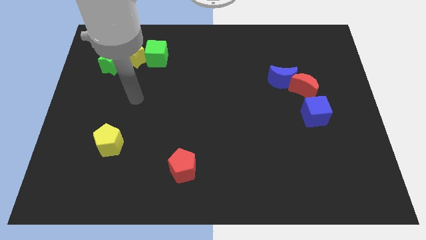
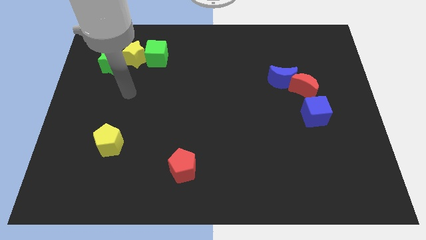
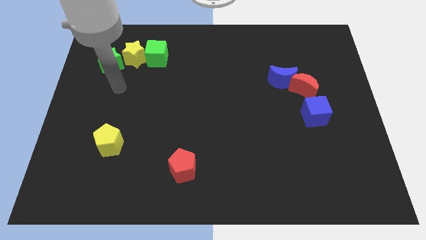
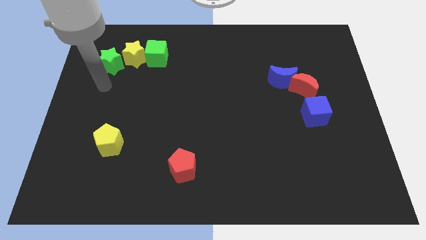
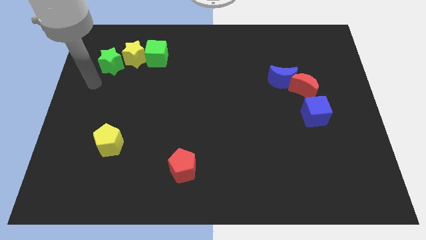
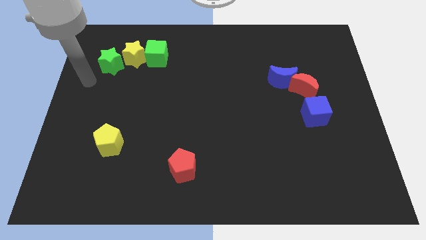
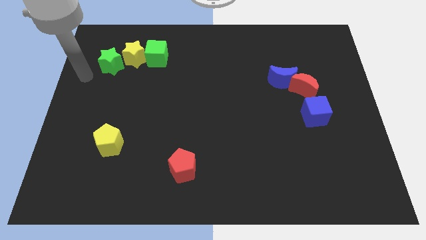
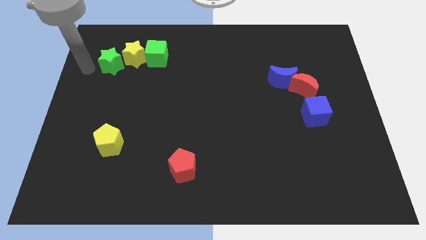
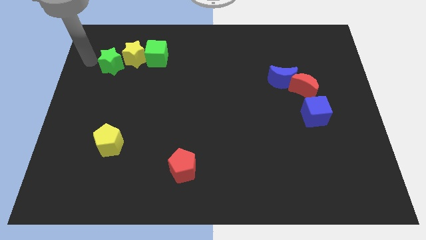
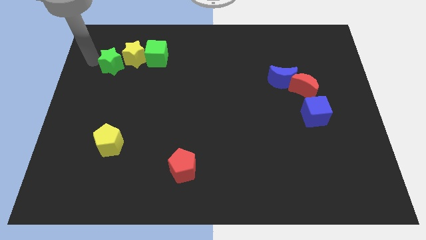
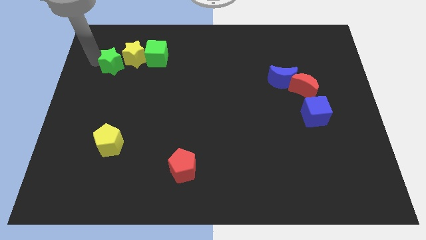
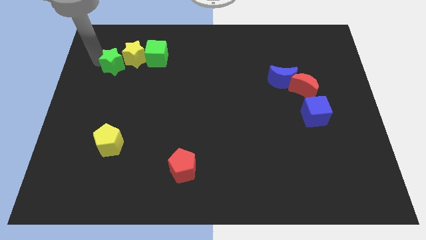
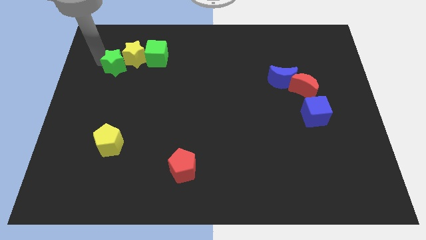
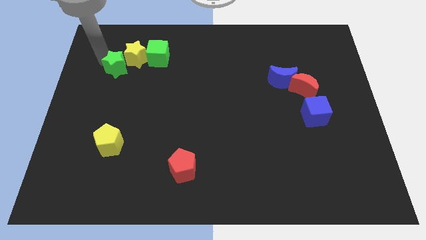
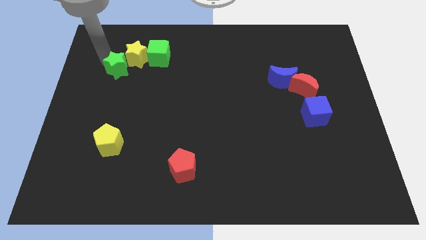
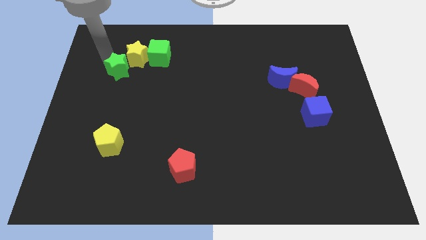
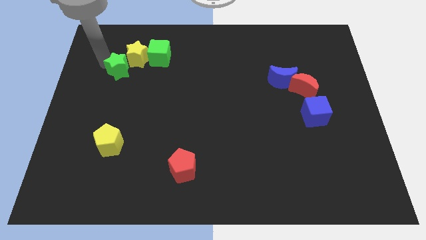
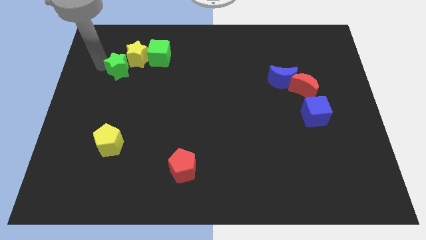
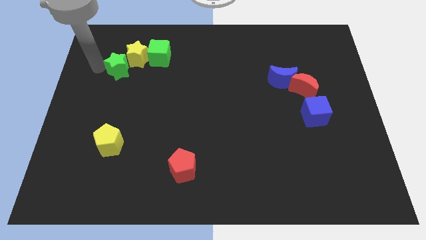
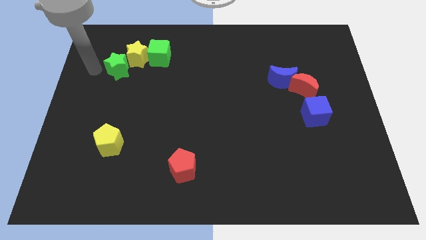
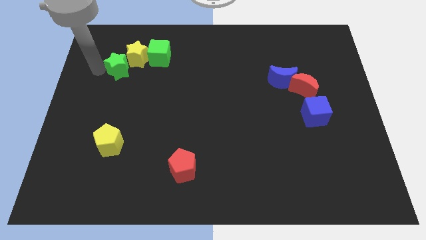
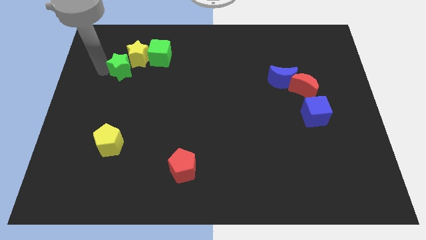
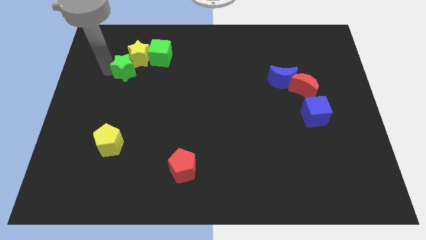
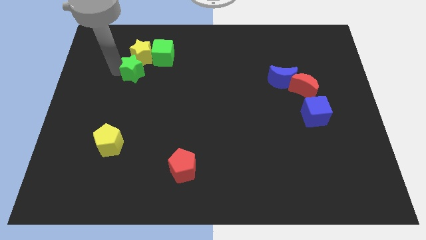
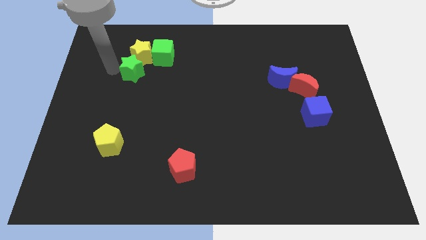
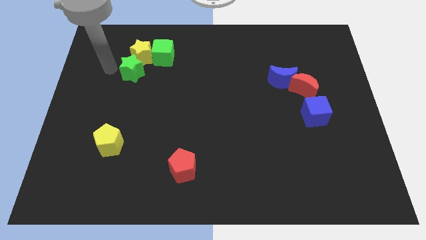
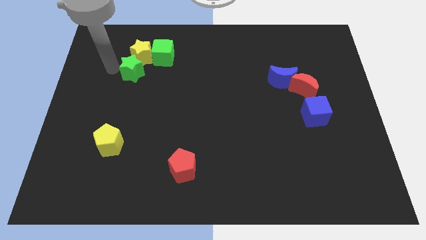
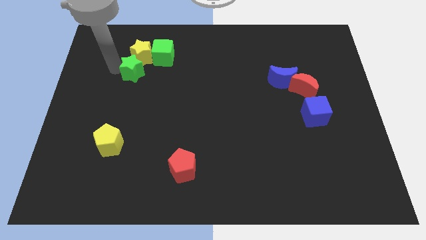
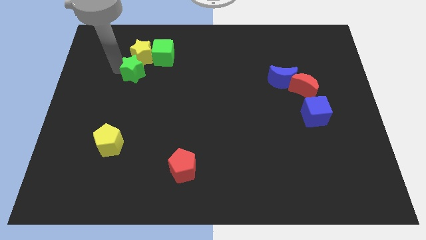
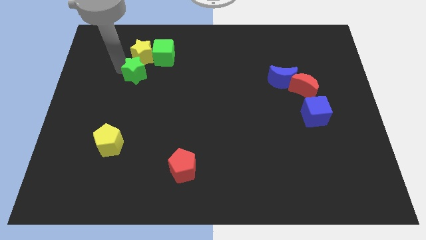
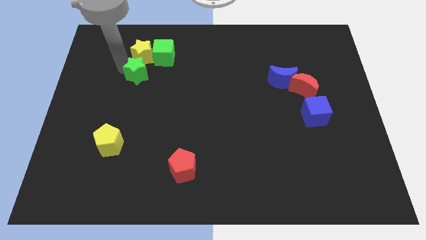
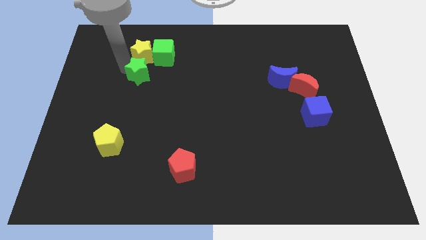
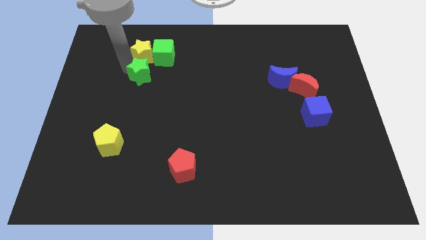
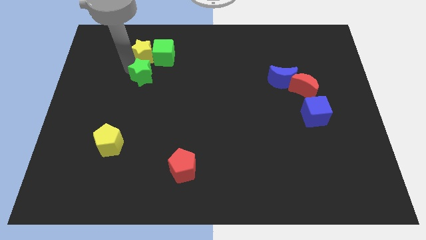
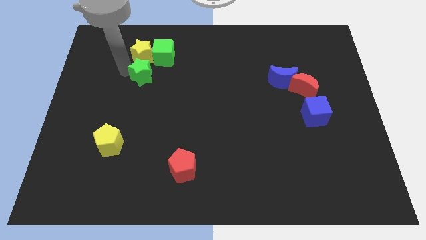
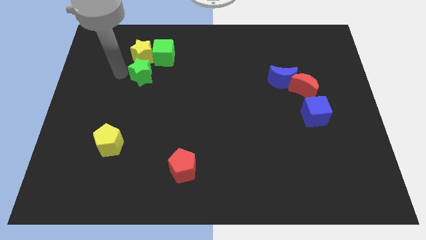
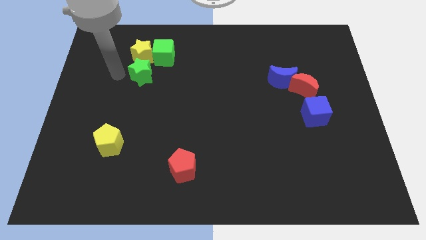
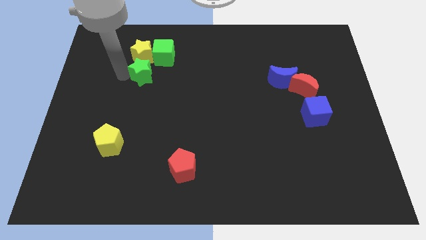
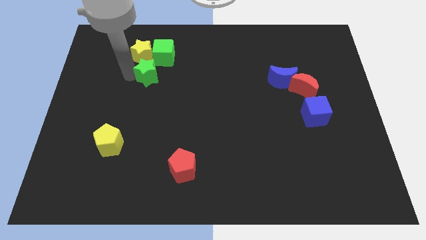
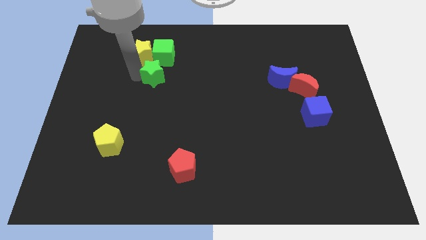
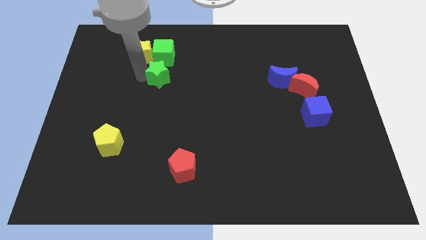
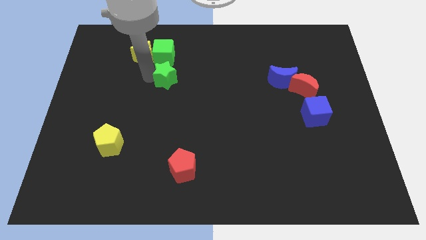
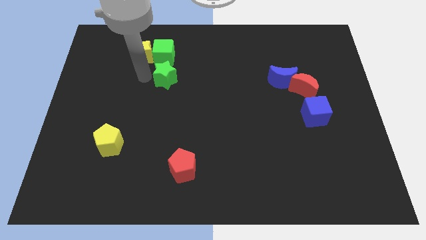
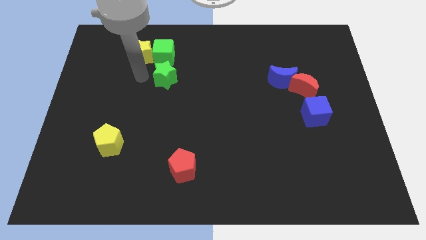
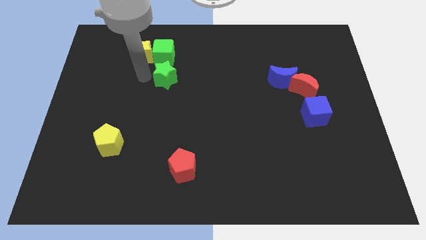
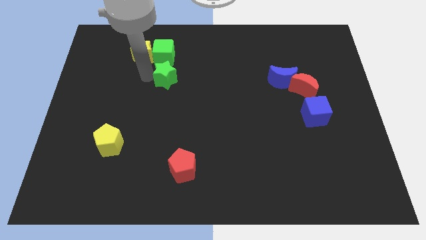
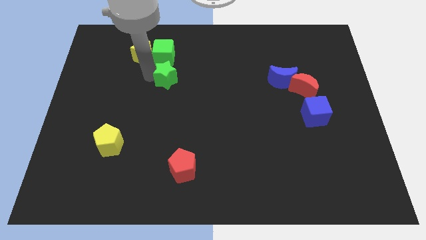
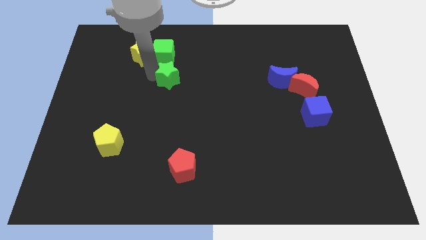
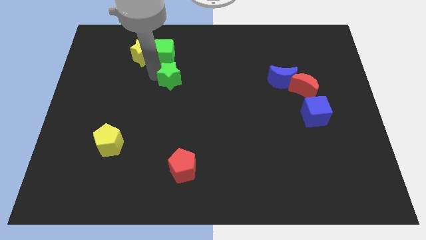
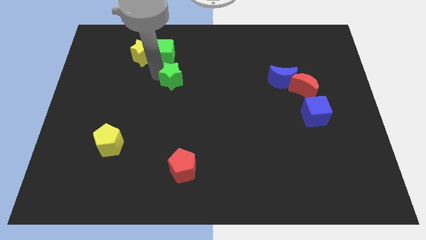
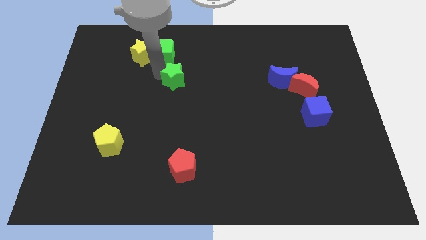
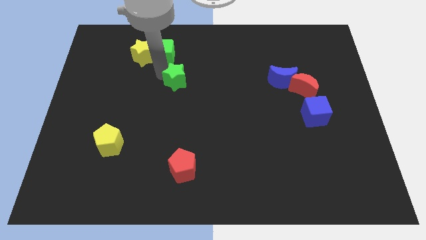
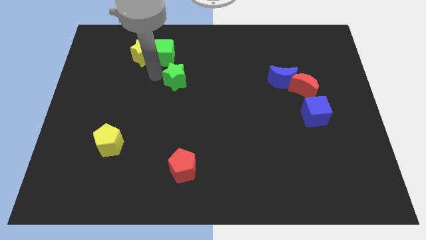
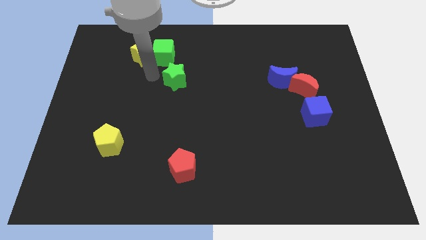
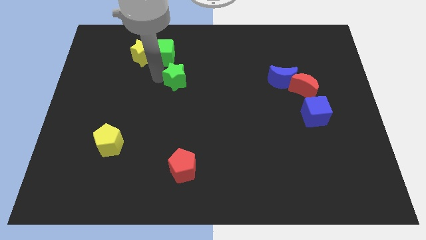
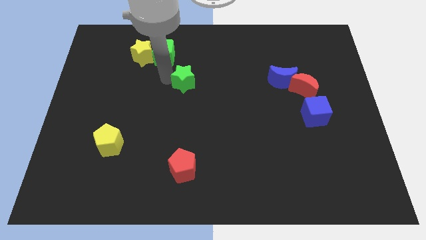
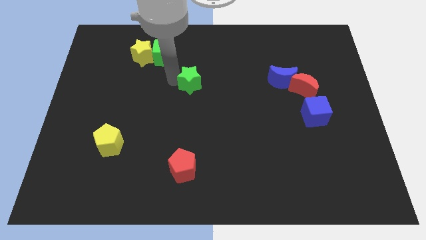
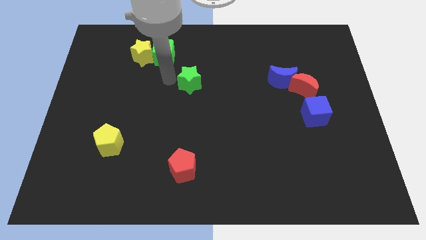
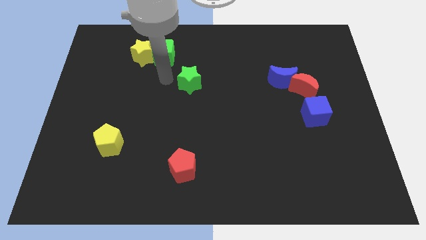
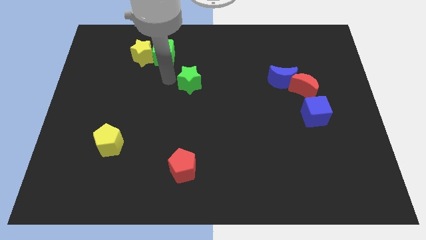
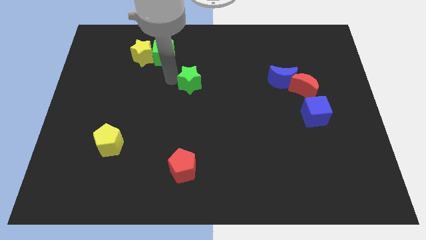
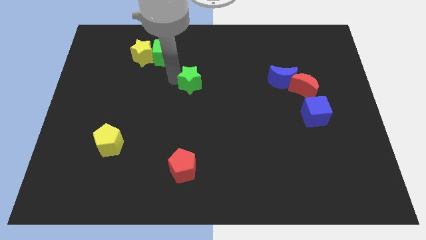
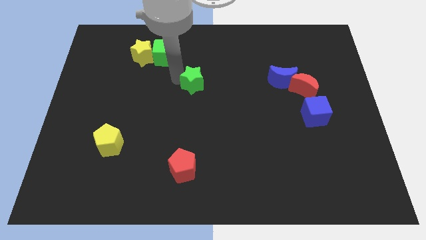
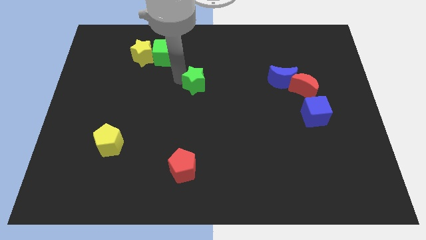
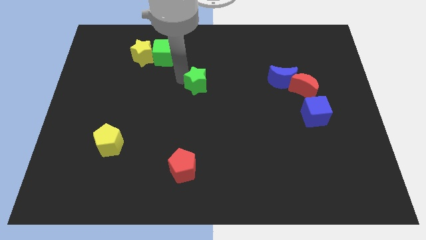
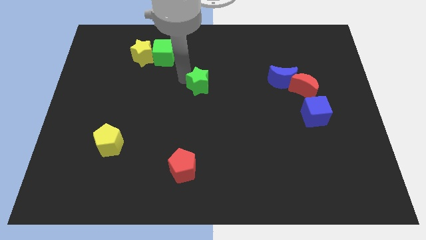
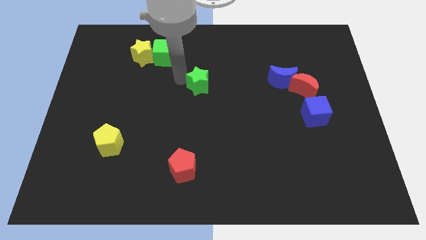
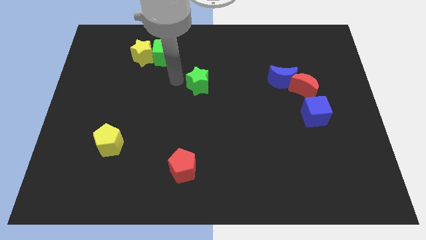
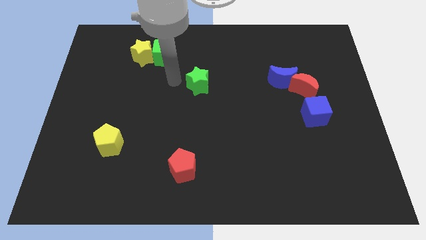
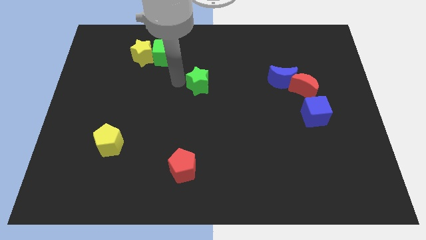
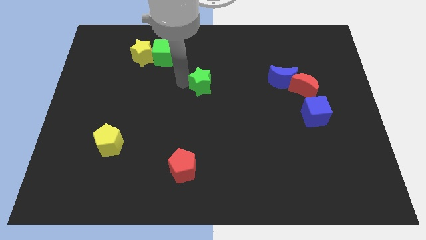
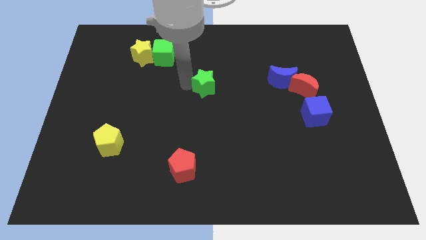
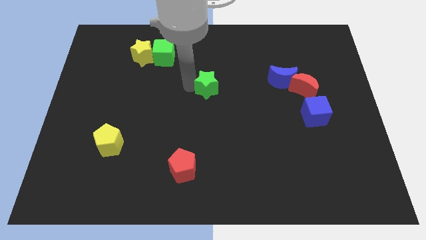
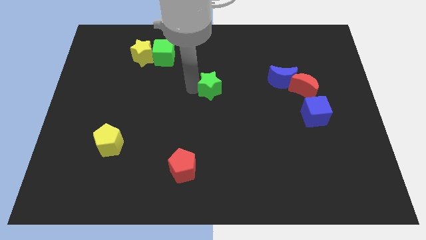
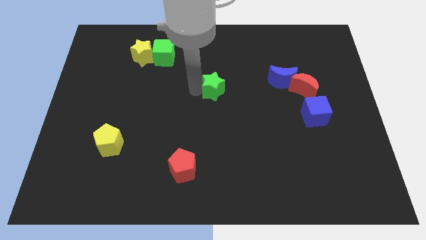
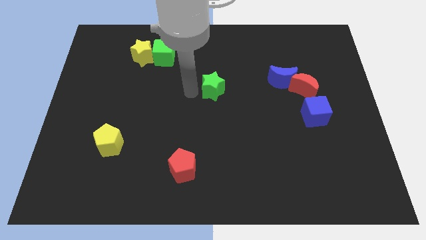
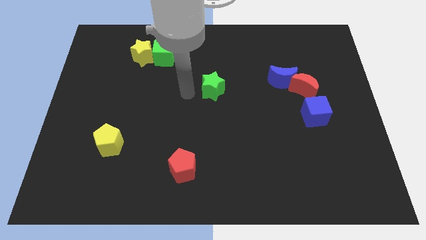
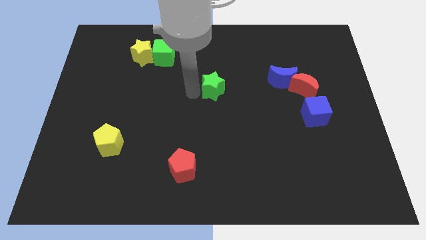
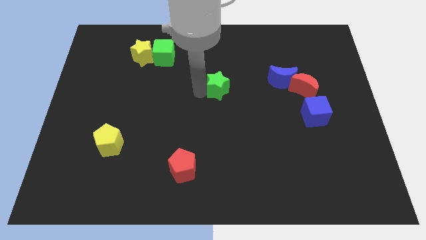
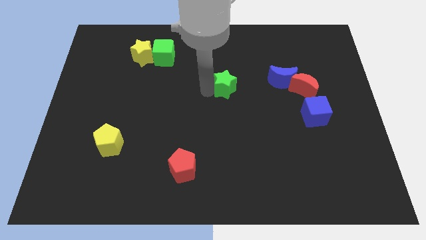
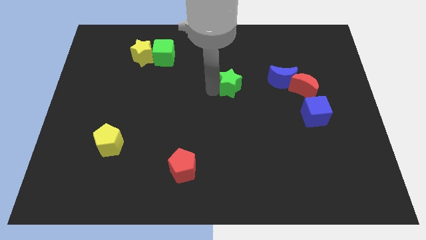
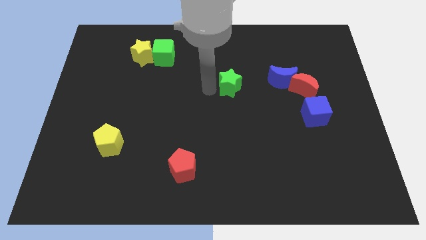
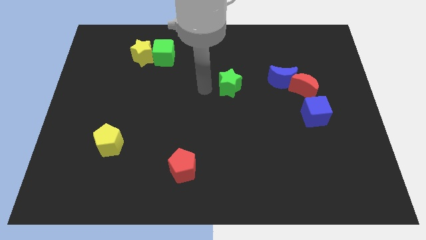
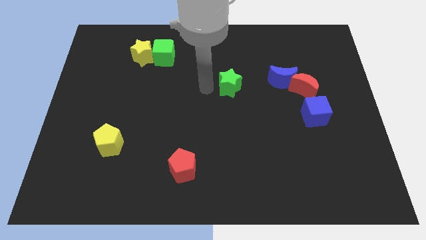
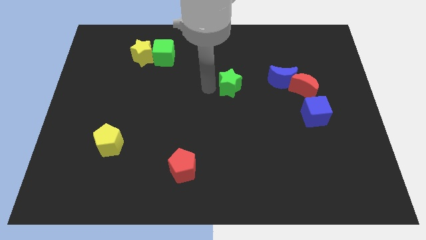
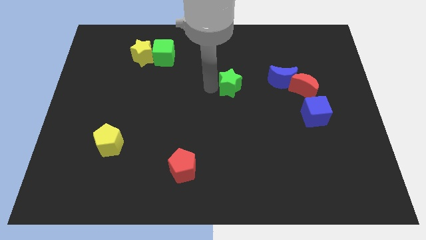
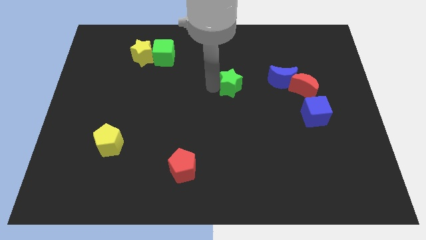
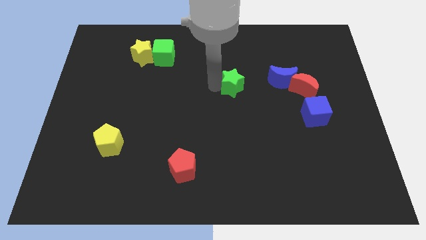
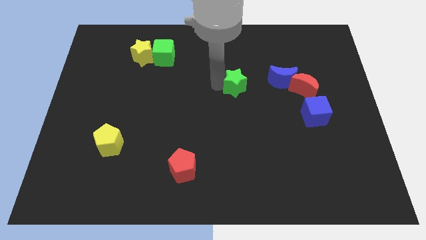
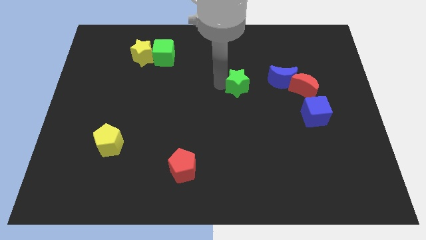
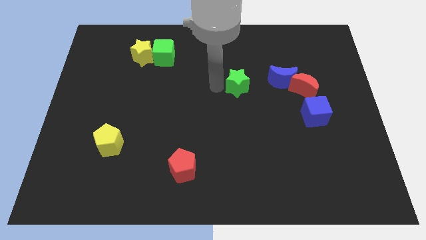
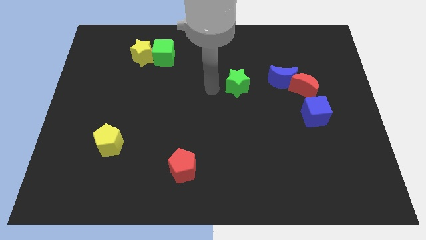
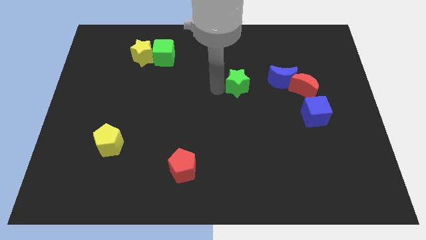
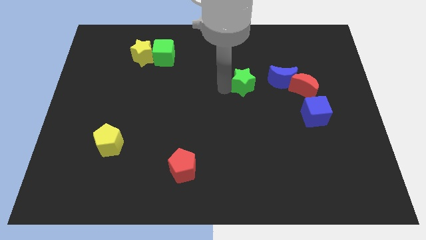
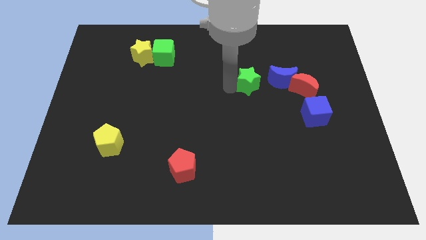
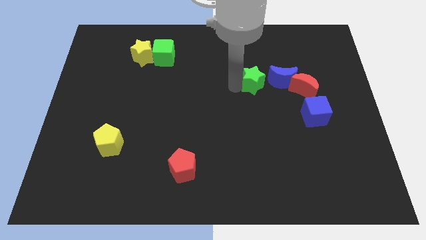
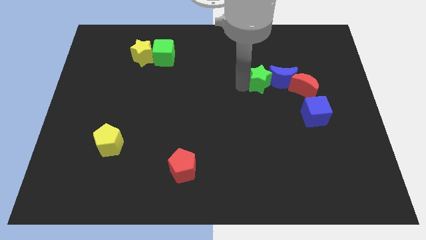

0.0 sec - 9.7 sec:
put the green star close to the blue moon
